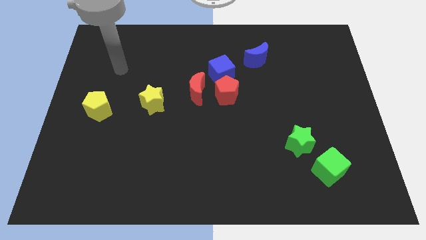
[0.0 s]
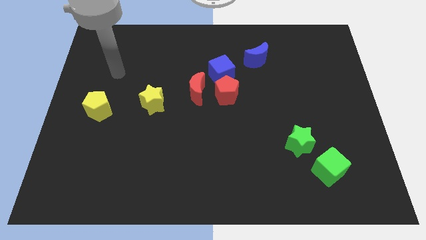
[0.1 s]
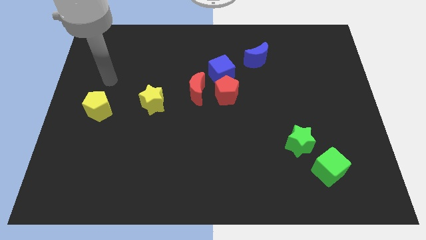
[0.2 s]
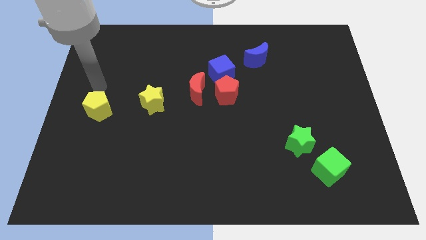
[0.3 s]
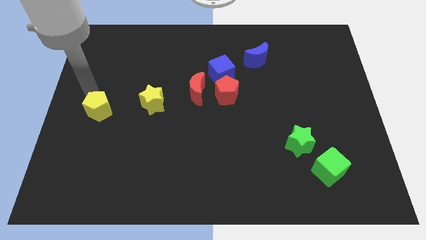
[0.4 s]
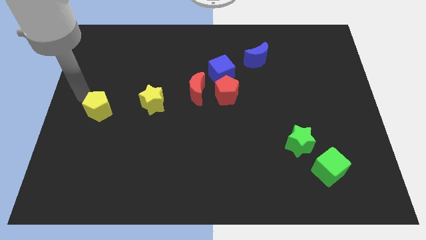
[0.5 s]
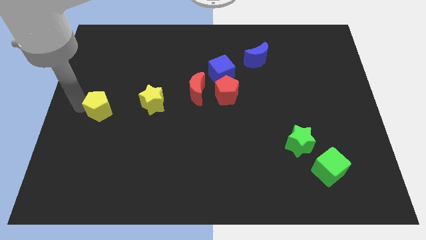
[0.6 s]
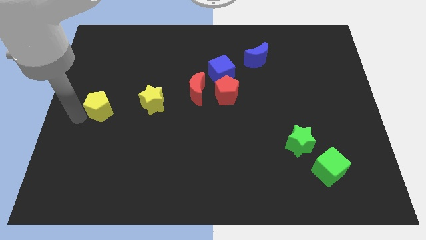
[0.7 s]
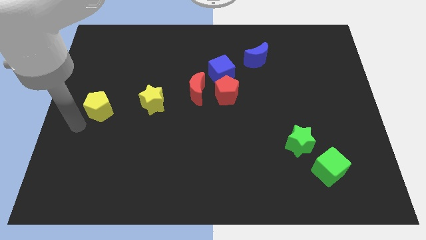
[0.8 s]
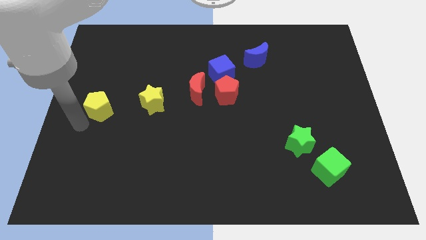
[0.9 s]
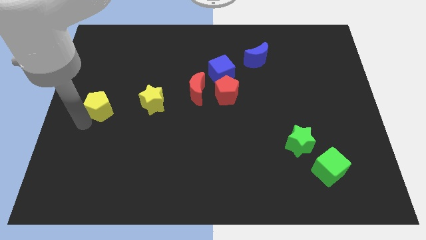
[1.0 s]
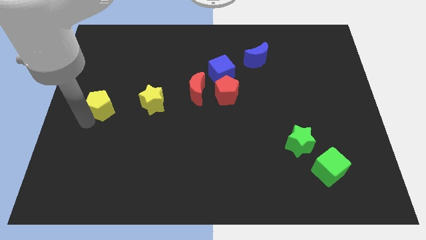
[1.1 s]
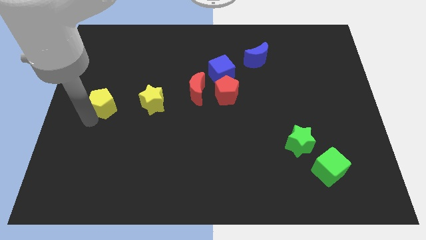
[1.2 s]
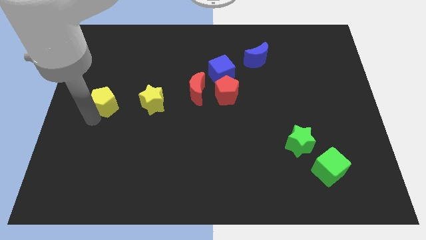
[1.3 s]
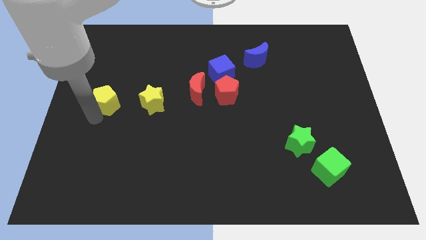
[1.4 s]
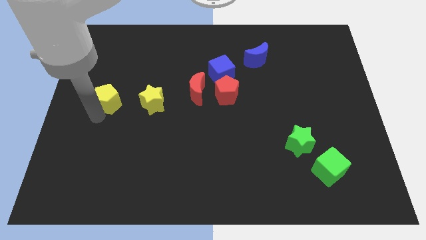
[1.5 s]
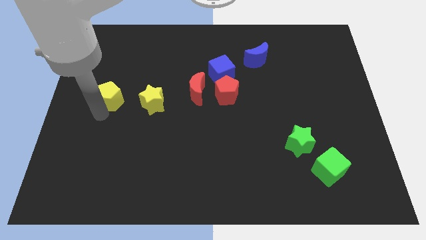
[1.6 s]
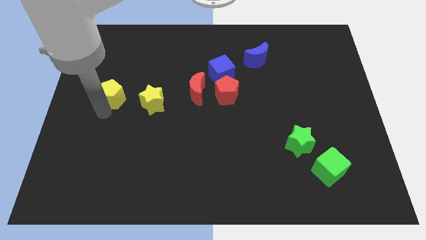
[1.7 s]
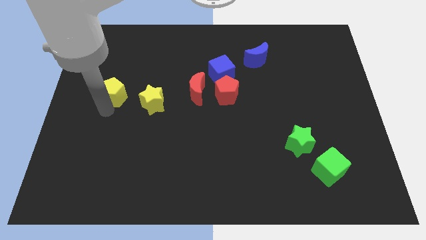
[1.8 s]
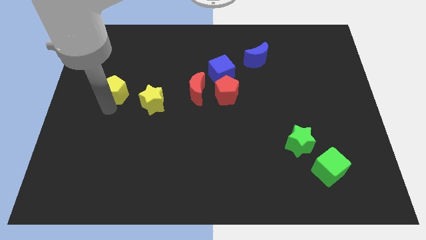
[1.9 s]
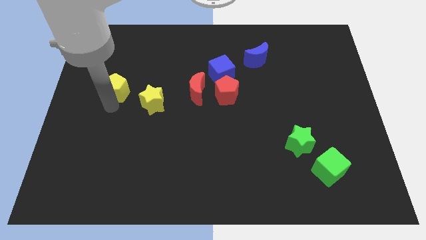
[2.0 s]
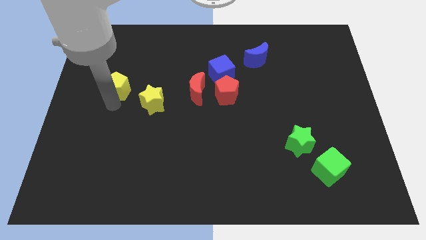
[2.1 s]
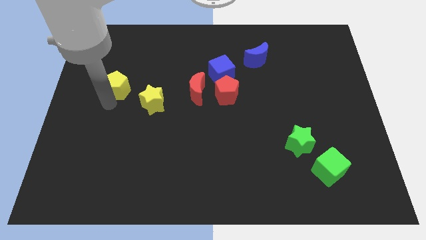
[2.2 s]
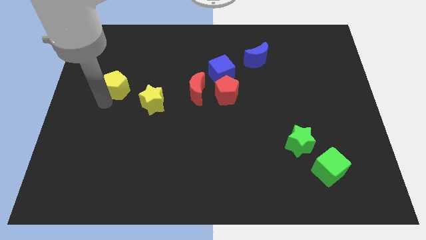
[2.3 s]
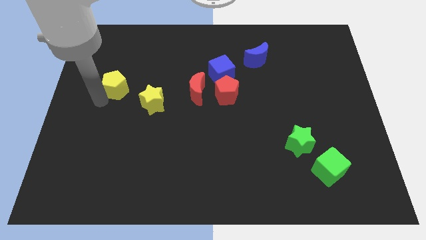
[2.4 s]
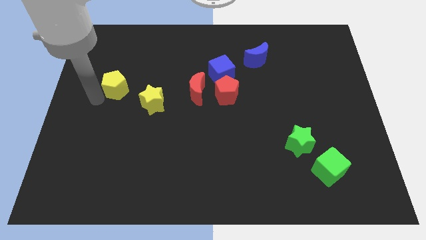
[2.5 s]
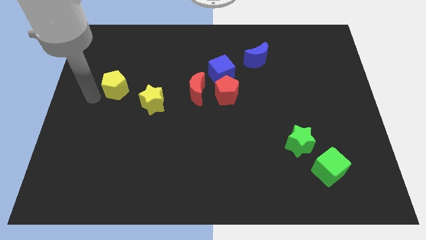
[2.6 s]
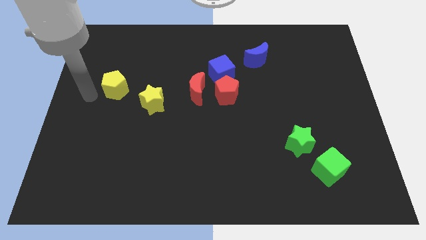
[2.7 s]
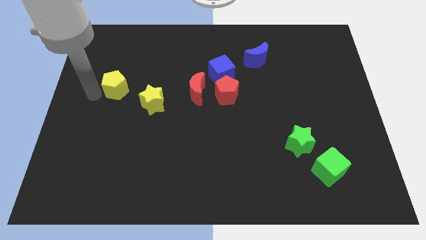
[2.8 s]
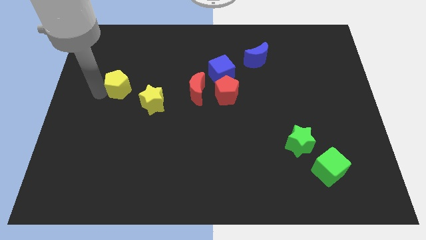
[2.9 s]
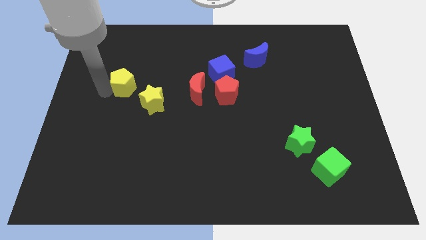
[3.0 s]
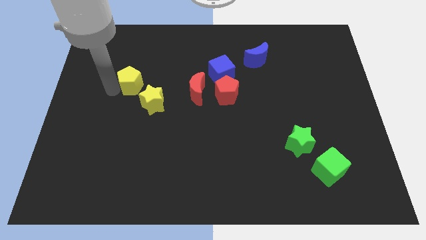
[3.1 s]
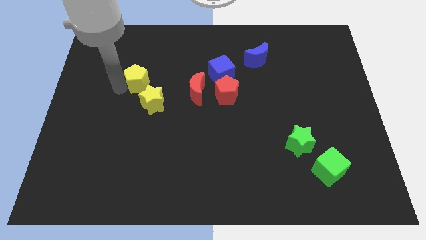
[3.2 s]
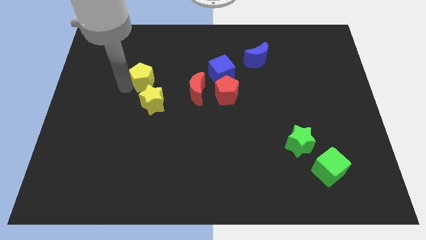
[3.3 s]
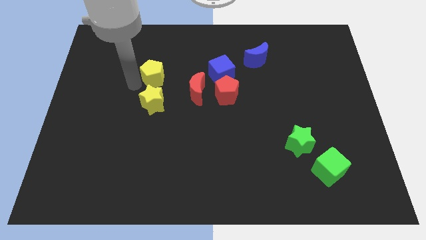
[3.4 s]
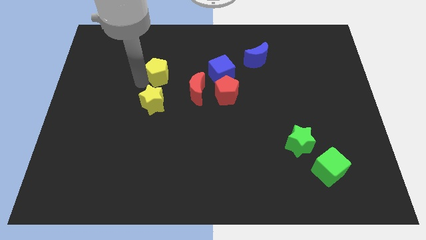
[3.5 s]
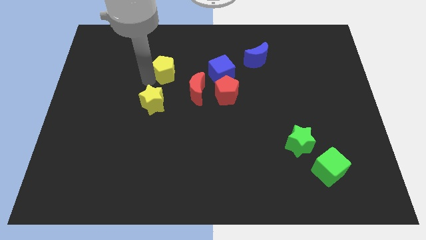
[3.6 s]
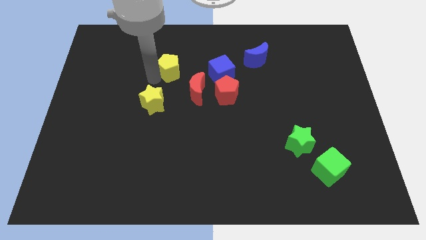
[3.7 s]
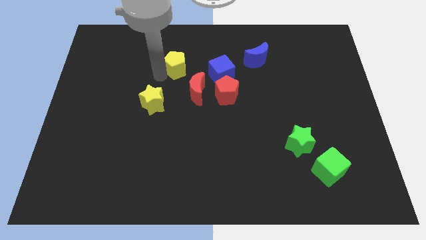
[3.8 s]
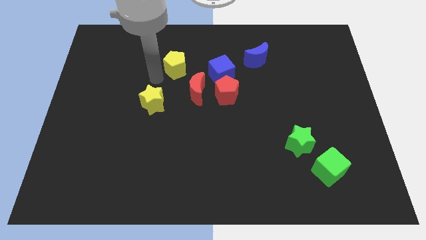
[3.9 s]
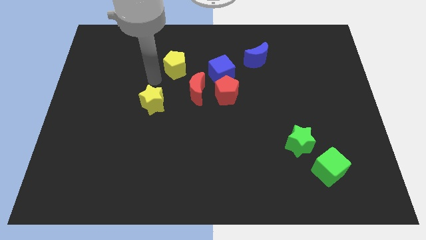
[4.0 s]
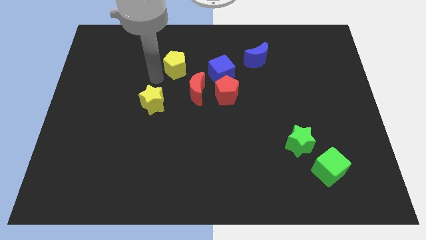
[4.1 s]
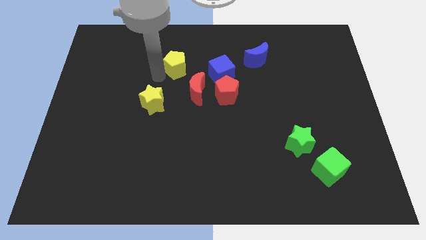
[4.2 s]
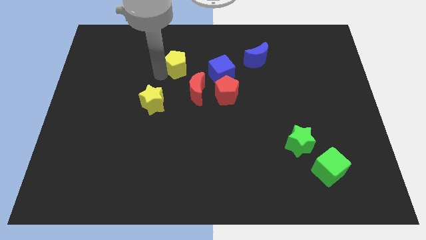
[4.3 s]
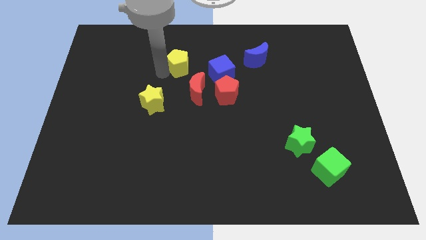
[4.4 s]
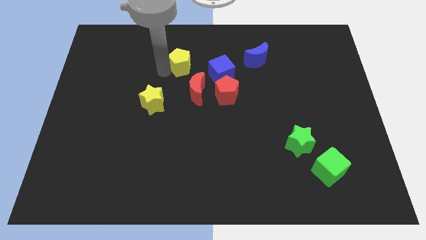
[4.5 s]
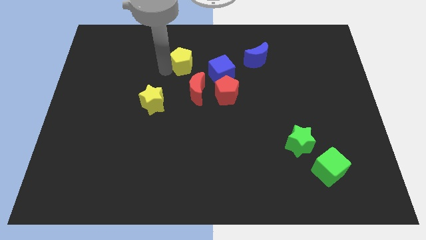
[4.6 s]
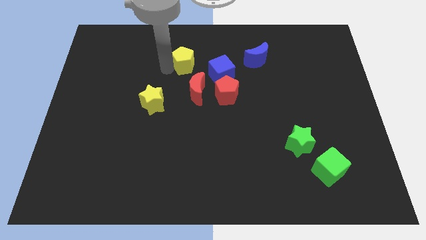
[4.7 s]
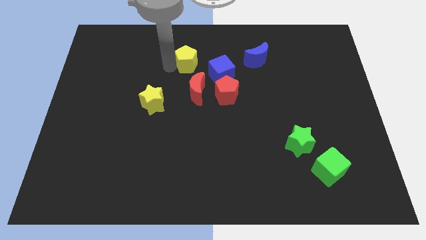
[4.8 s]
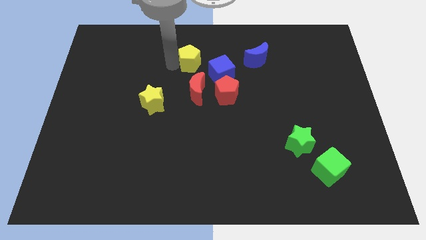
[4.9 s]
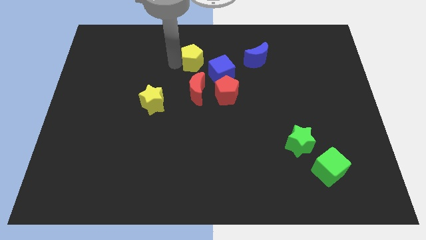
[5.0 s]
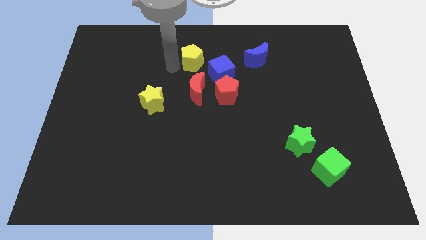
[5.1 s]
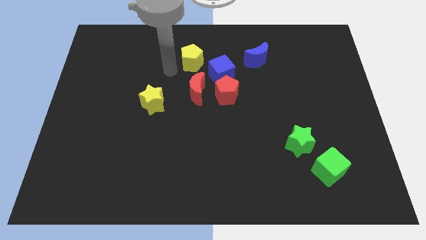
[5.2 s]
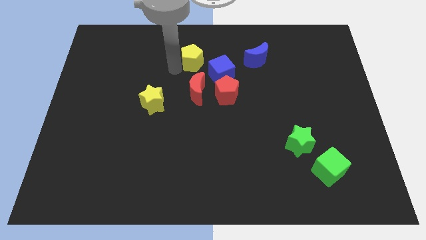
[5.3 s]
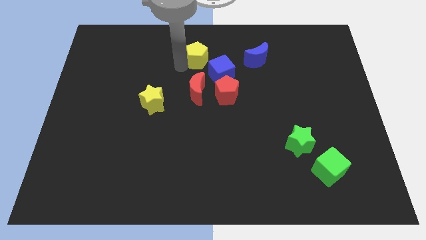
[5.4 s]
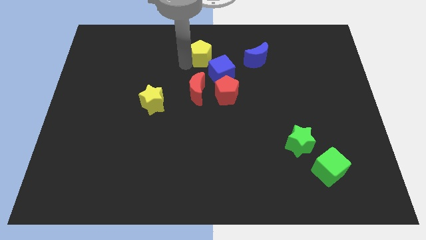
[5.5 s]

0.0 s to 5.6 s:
push the yellow pentagon to the towards your base

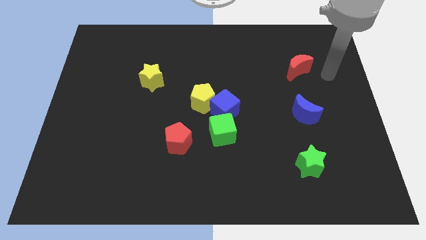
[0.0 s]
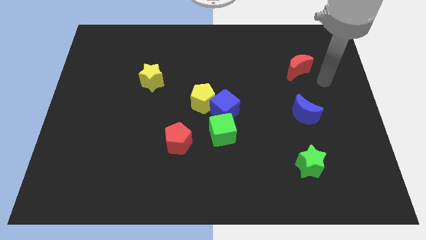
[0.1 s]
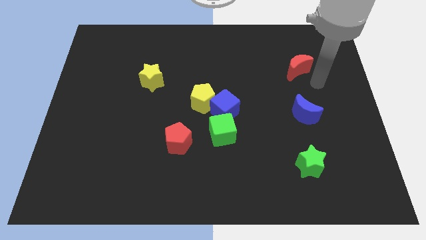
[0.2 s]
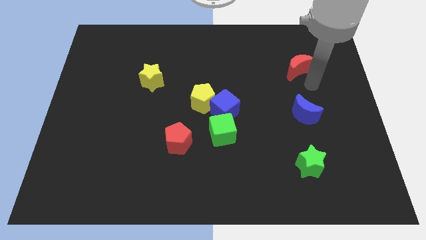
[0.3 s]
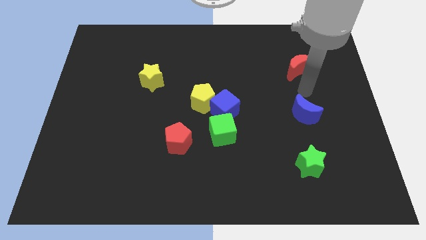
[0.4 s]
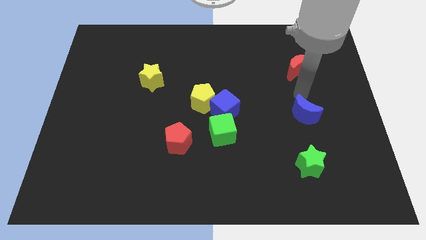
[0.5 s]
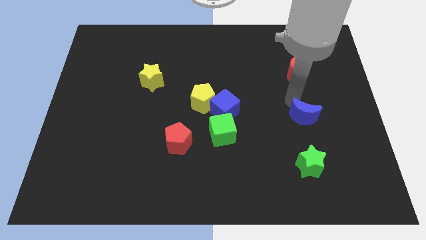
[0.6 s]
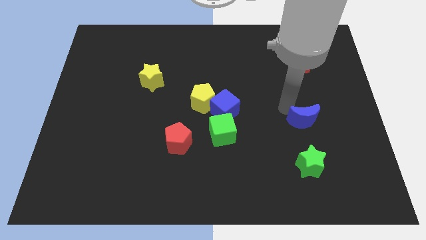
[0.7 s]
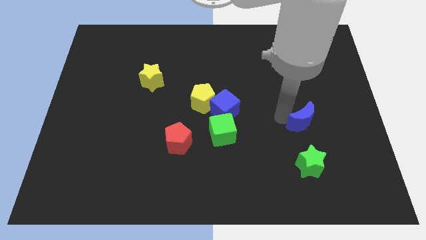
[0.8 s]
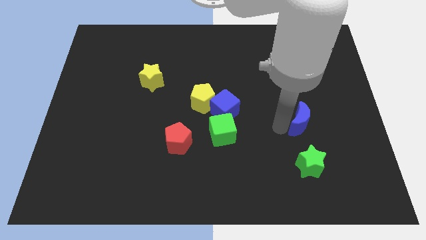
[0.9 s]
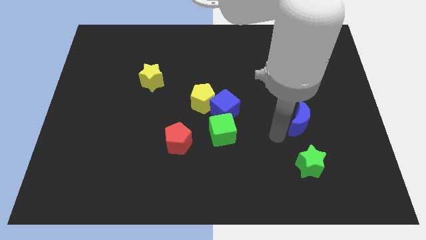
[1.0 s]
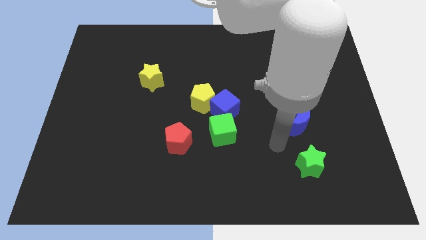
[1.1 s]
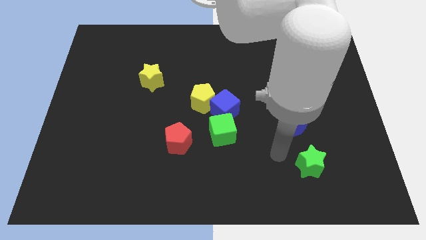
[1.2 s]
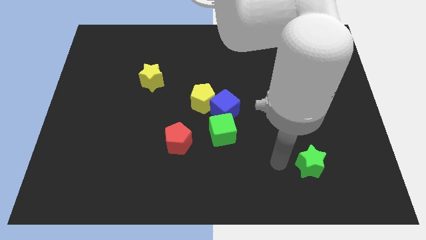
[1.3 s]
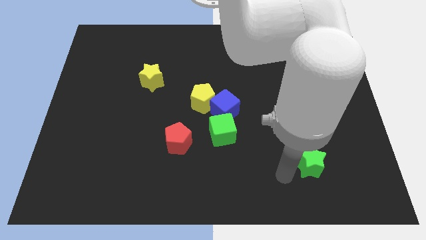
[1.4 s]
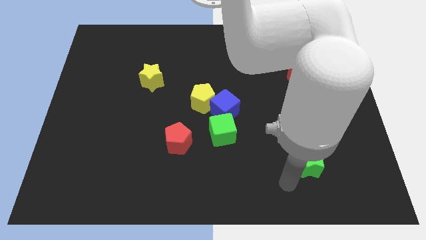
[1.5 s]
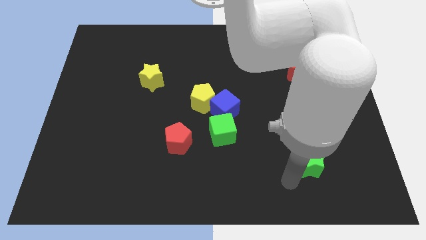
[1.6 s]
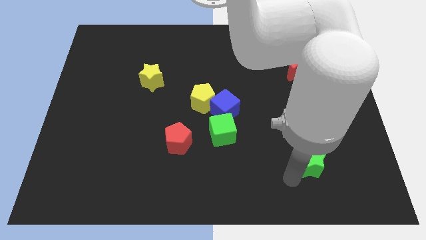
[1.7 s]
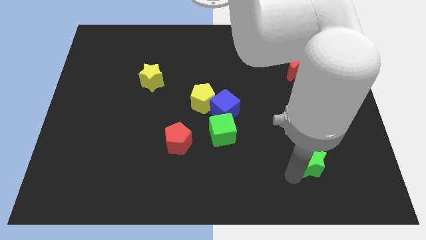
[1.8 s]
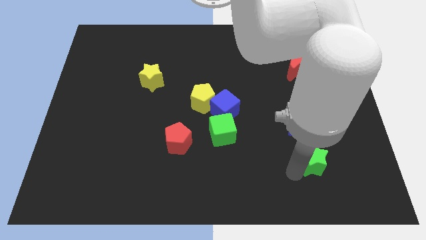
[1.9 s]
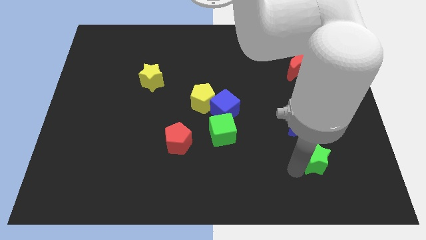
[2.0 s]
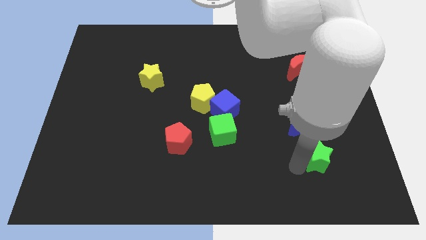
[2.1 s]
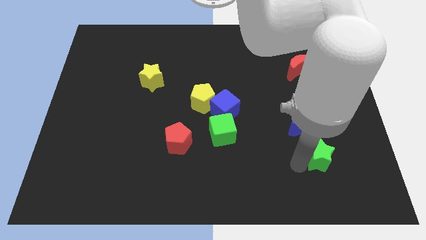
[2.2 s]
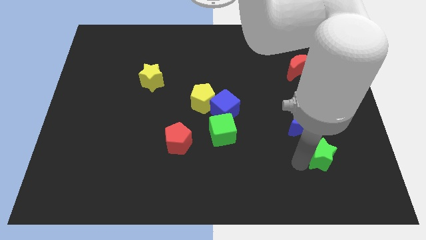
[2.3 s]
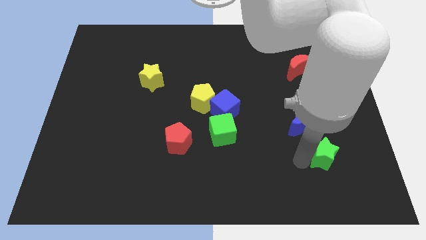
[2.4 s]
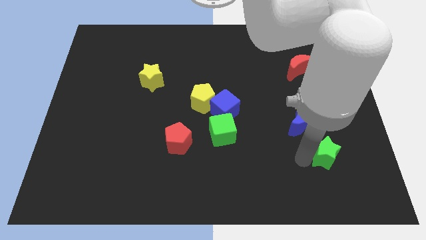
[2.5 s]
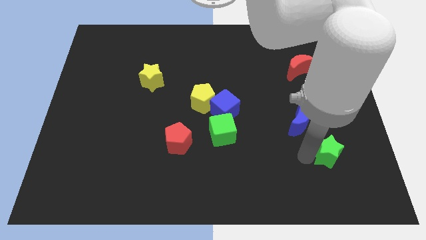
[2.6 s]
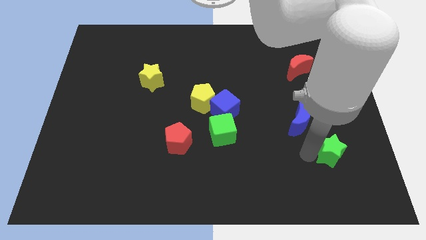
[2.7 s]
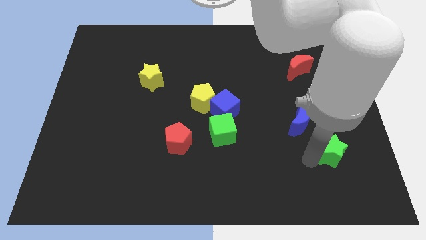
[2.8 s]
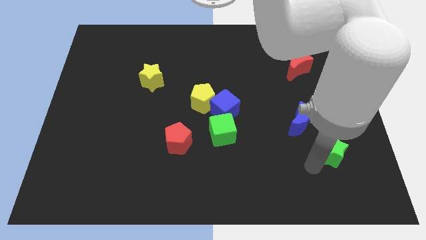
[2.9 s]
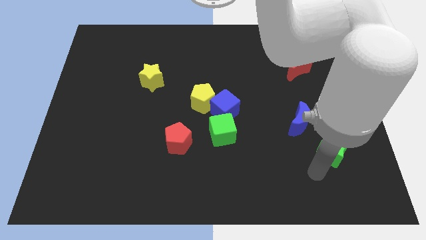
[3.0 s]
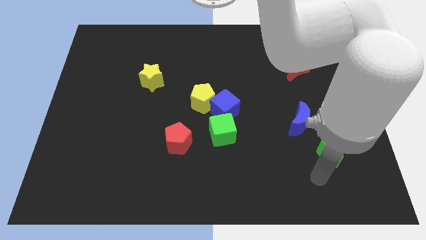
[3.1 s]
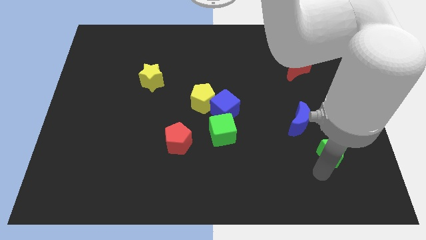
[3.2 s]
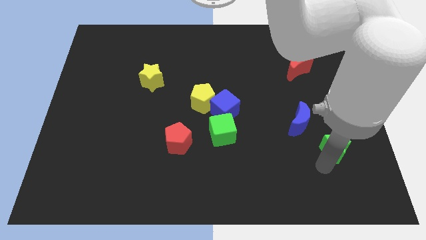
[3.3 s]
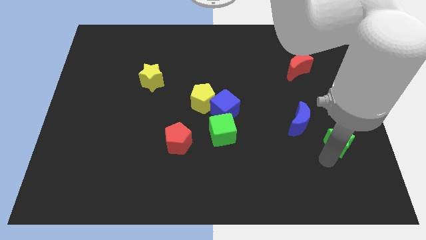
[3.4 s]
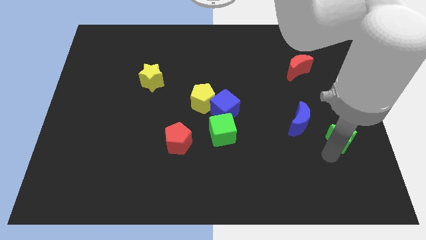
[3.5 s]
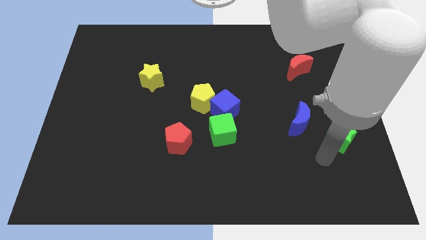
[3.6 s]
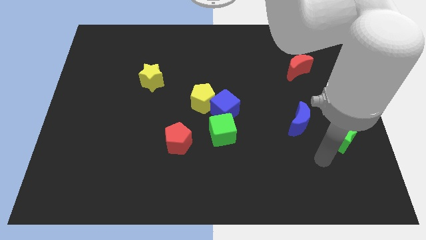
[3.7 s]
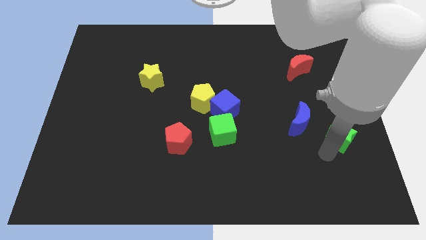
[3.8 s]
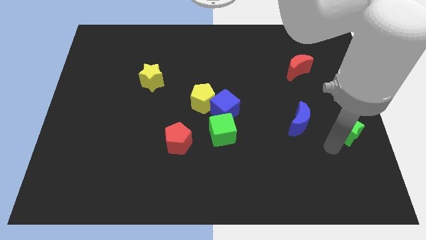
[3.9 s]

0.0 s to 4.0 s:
put the green star to the center right
